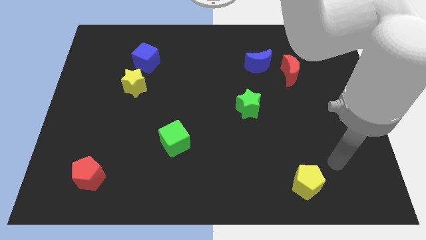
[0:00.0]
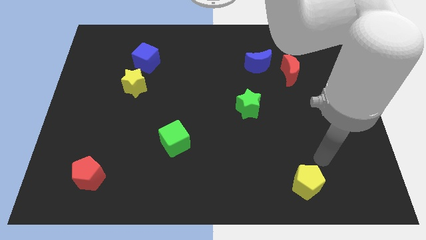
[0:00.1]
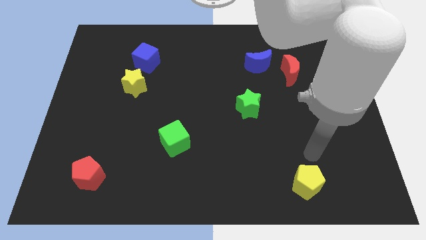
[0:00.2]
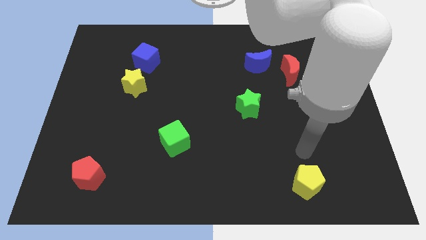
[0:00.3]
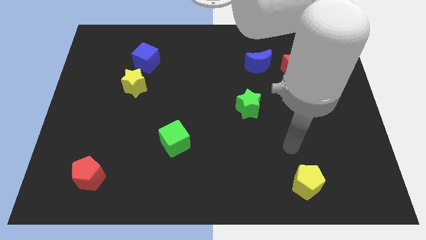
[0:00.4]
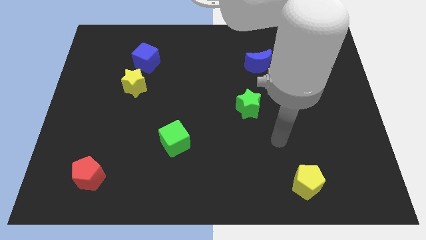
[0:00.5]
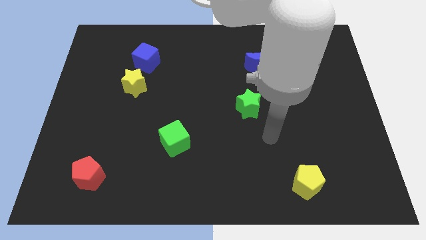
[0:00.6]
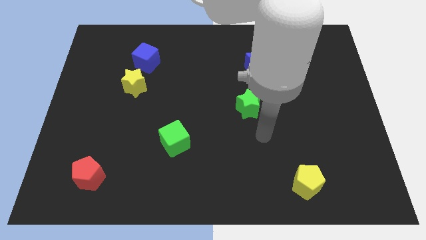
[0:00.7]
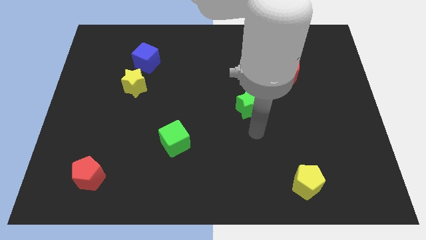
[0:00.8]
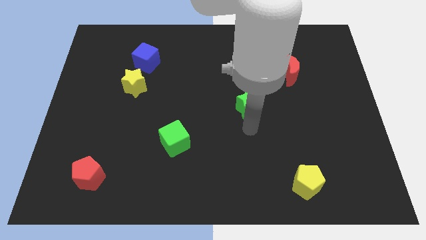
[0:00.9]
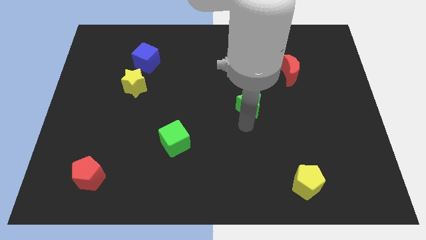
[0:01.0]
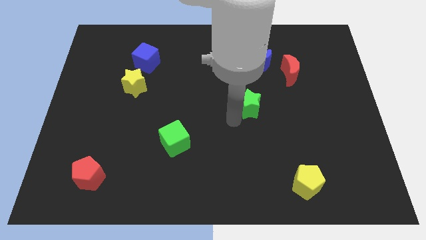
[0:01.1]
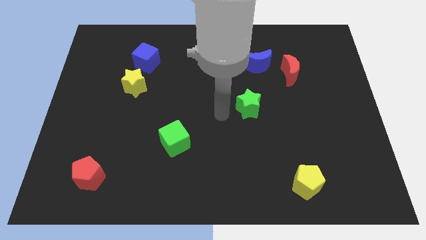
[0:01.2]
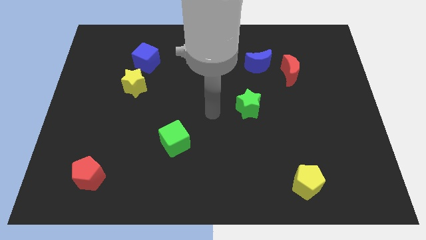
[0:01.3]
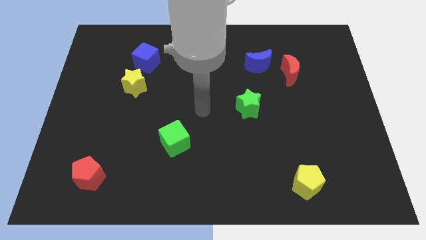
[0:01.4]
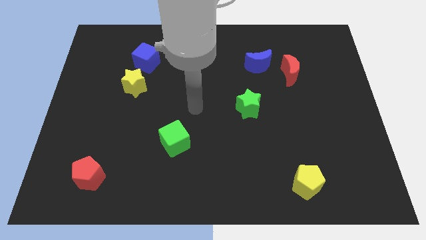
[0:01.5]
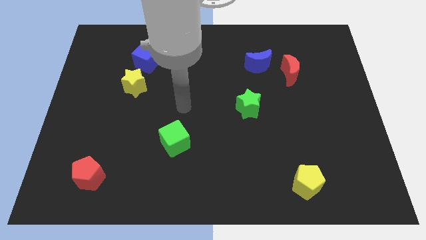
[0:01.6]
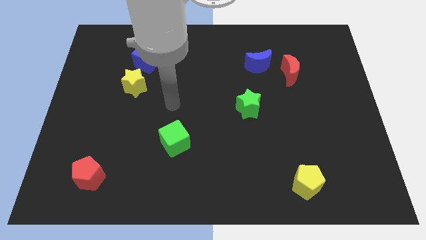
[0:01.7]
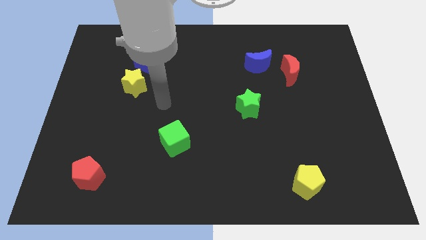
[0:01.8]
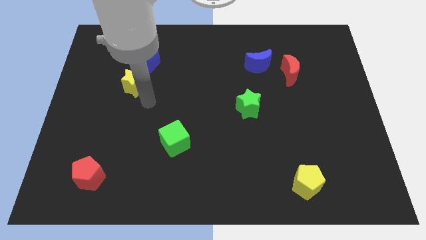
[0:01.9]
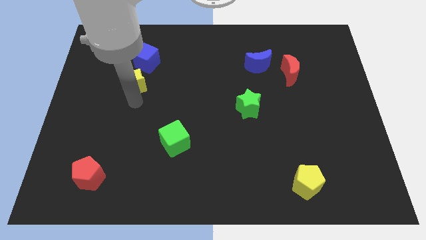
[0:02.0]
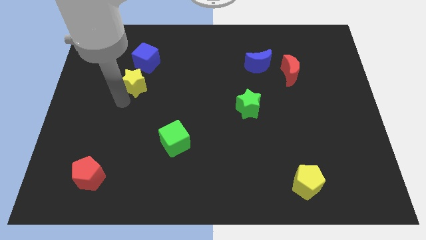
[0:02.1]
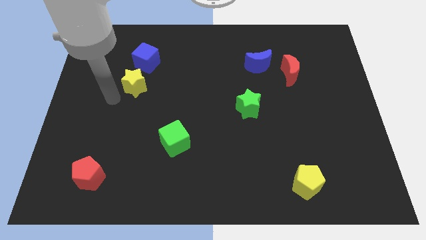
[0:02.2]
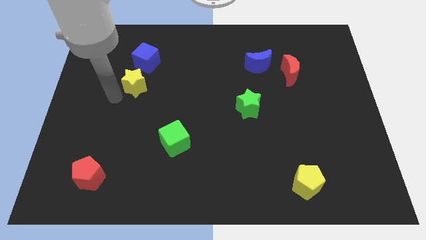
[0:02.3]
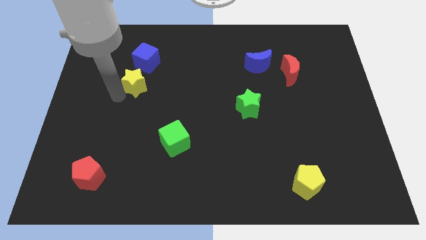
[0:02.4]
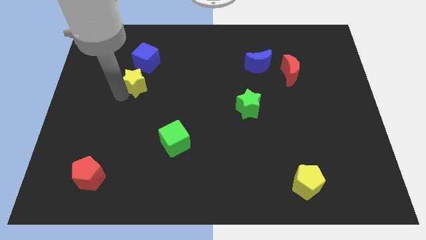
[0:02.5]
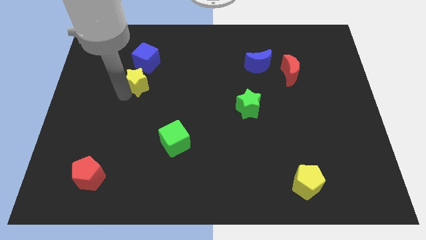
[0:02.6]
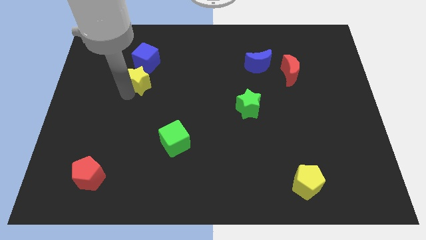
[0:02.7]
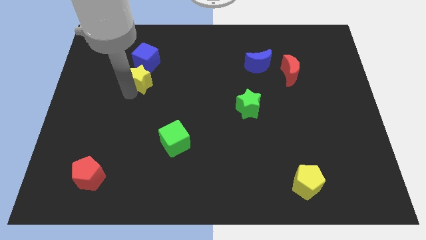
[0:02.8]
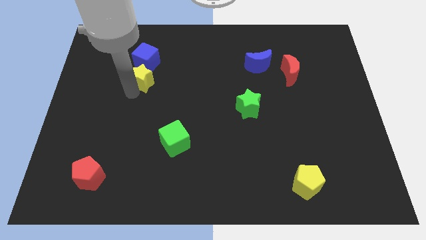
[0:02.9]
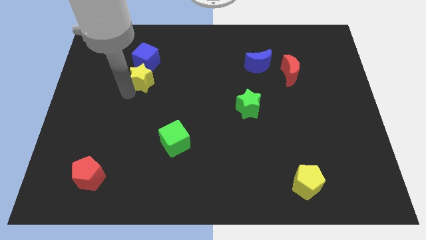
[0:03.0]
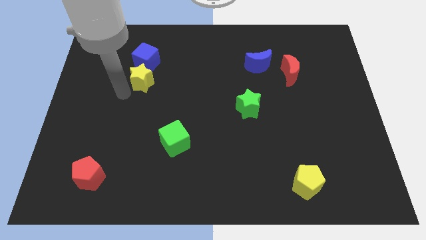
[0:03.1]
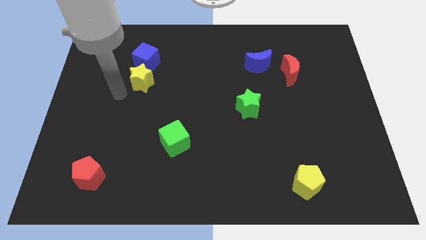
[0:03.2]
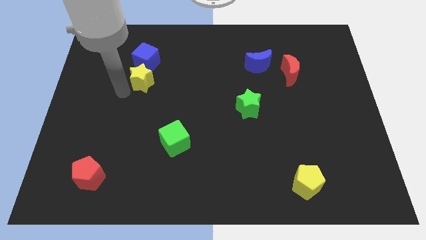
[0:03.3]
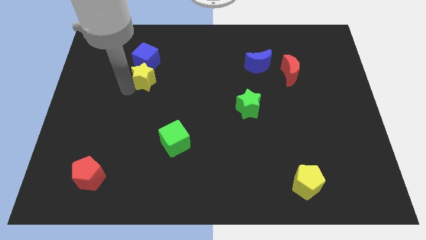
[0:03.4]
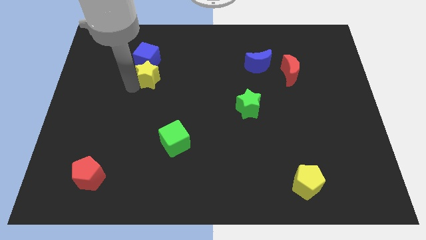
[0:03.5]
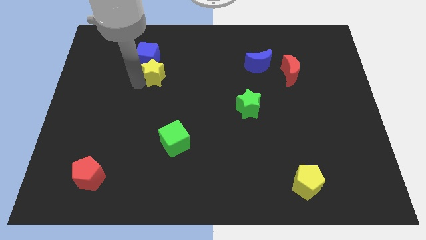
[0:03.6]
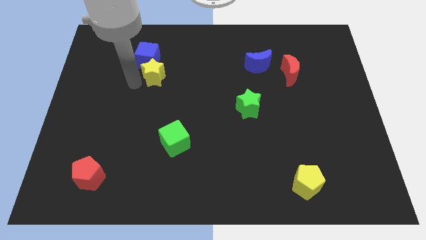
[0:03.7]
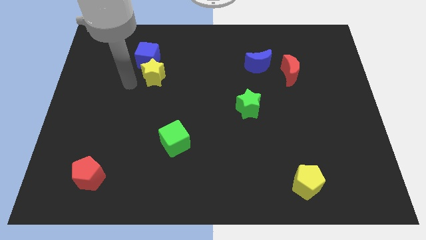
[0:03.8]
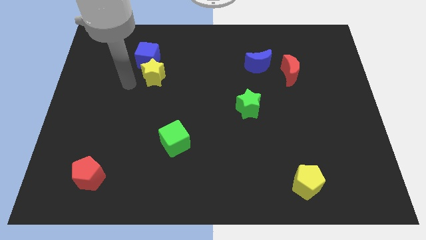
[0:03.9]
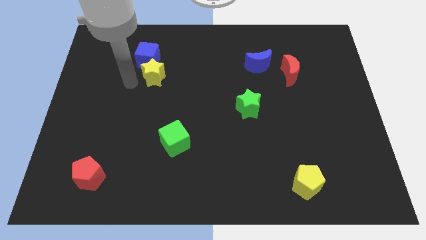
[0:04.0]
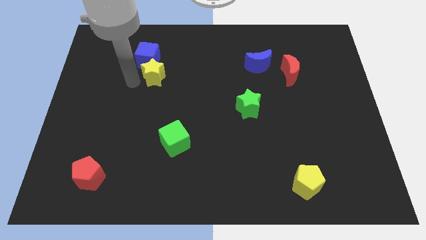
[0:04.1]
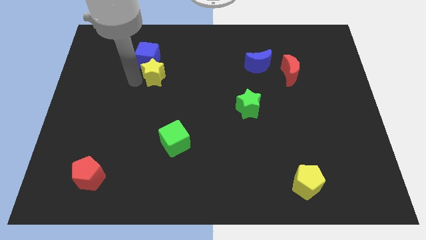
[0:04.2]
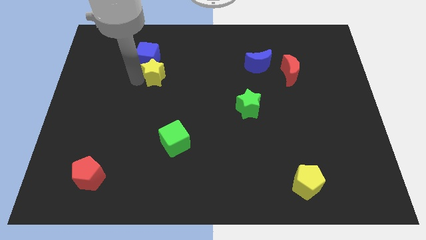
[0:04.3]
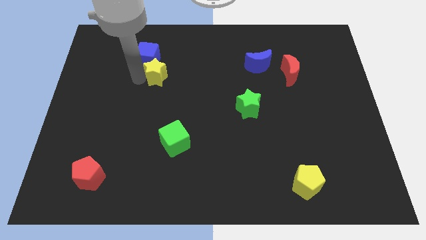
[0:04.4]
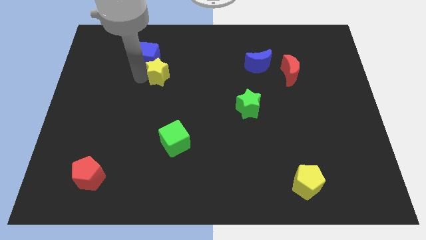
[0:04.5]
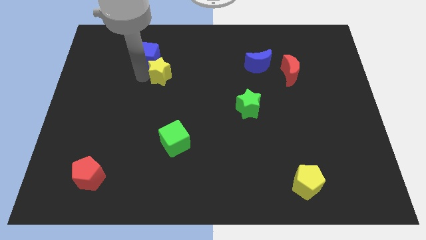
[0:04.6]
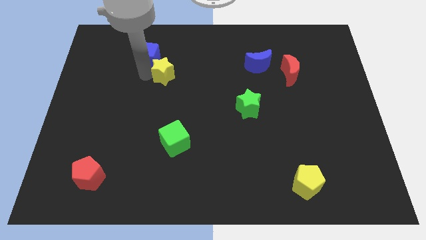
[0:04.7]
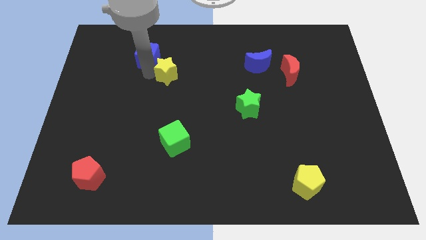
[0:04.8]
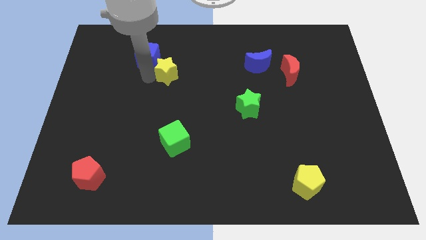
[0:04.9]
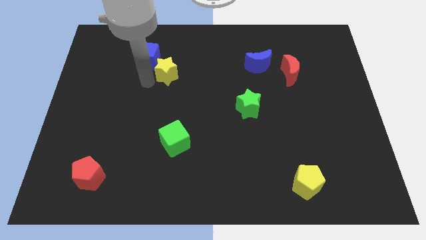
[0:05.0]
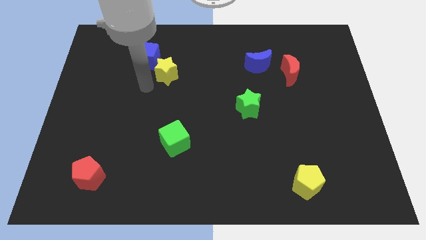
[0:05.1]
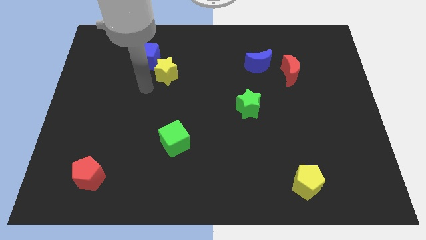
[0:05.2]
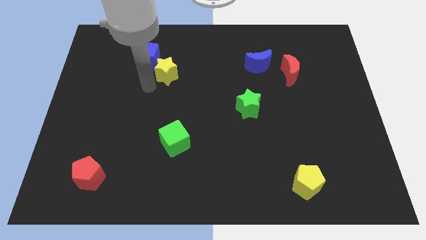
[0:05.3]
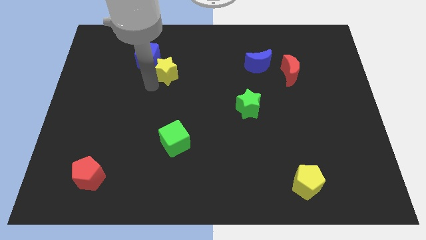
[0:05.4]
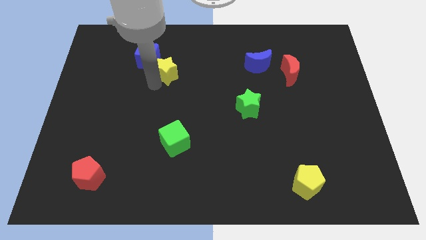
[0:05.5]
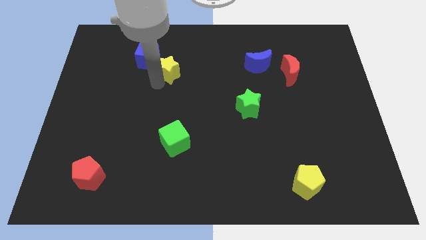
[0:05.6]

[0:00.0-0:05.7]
slide the yellow star to the right side of the blue cube

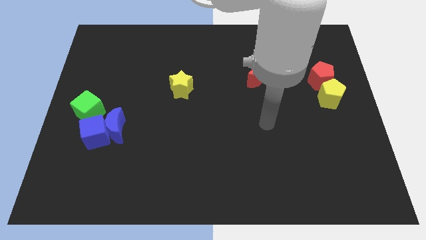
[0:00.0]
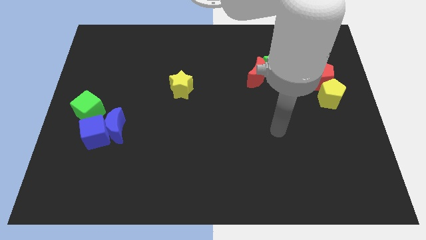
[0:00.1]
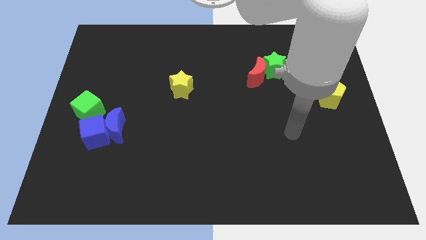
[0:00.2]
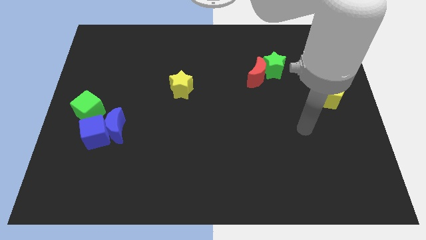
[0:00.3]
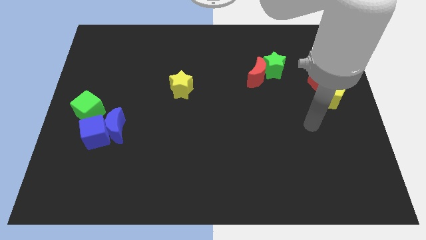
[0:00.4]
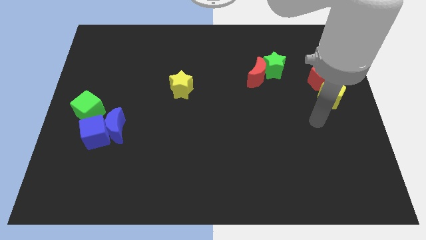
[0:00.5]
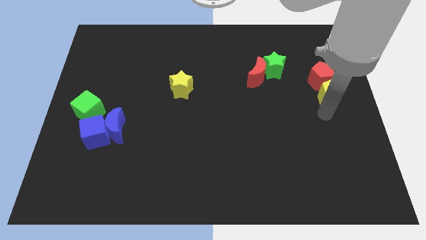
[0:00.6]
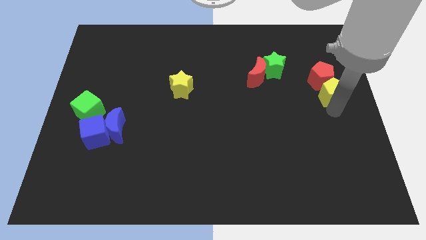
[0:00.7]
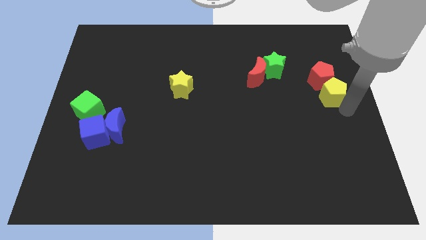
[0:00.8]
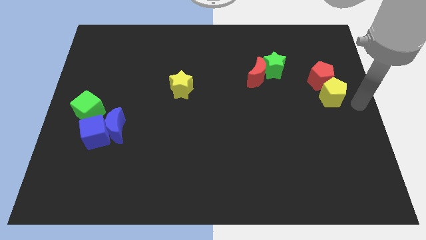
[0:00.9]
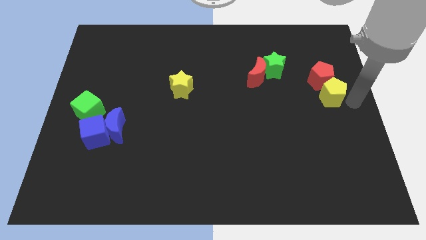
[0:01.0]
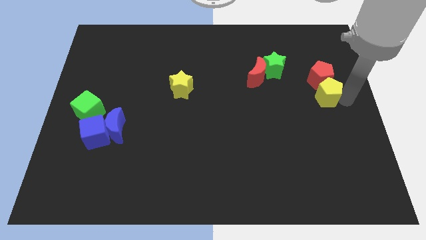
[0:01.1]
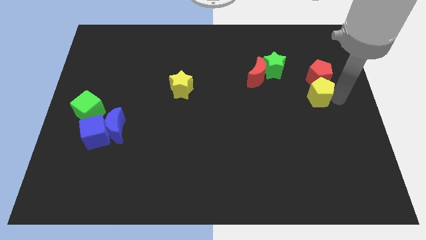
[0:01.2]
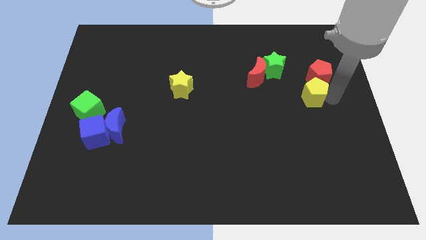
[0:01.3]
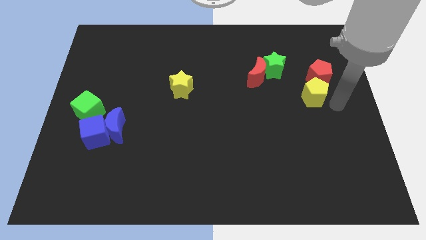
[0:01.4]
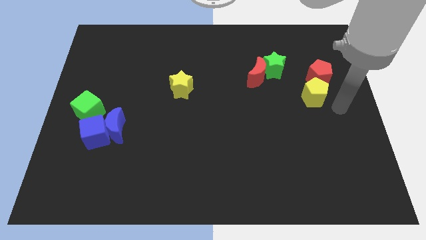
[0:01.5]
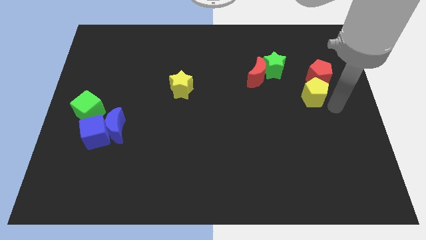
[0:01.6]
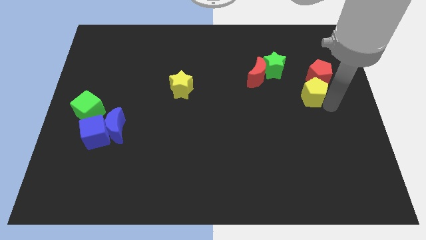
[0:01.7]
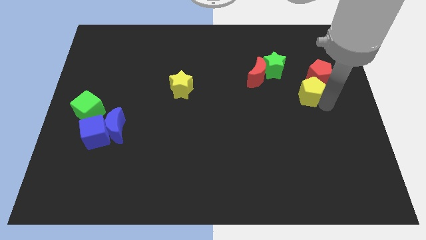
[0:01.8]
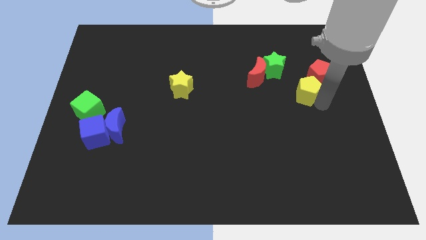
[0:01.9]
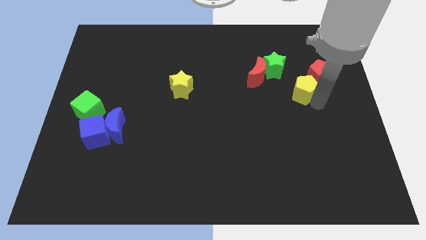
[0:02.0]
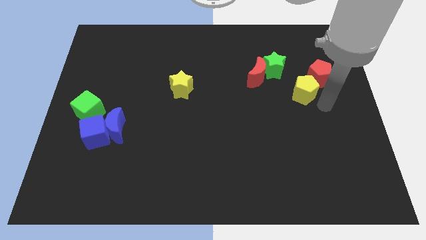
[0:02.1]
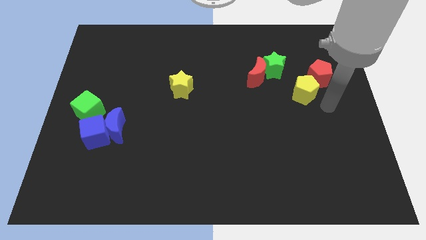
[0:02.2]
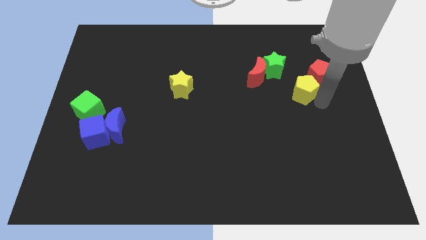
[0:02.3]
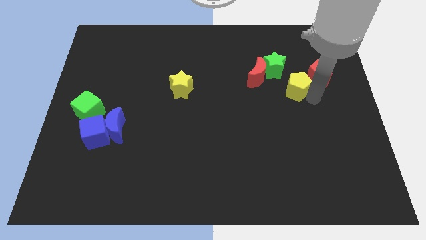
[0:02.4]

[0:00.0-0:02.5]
put the yellow pentagon to the left of the red pentagon
